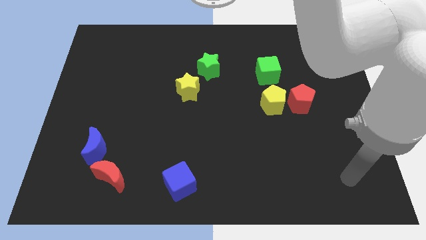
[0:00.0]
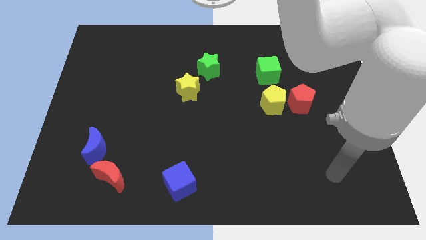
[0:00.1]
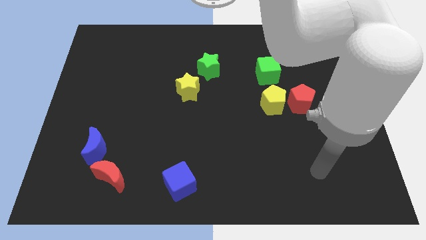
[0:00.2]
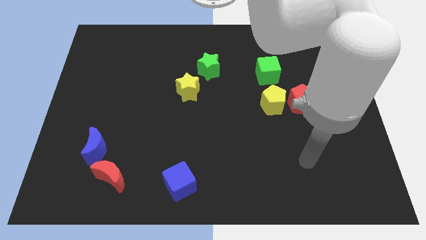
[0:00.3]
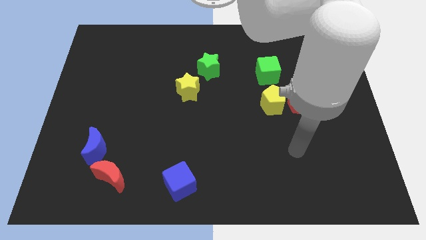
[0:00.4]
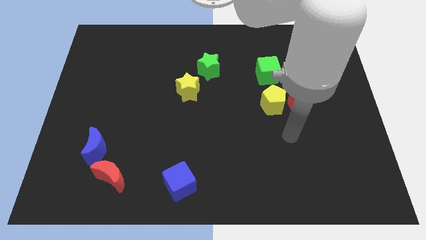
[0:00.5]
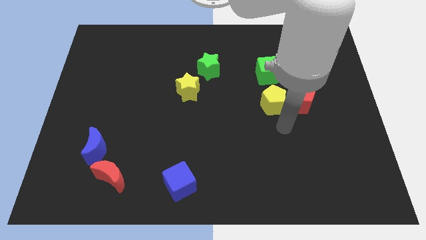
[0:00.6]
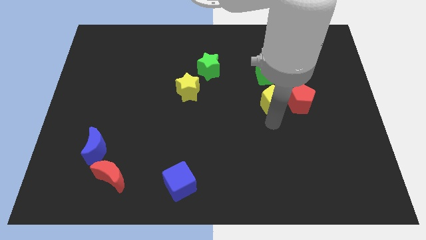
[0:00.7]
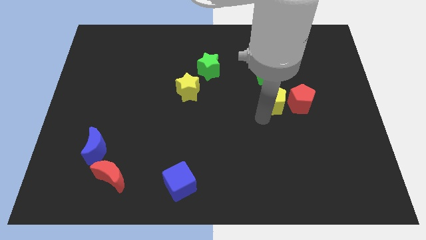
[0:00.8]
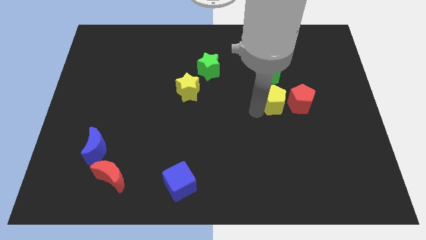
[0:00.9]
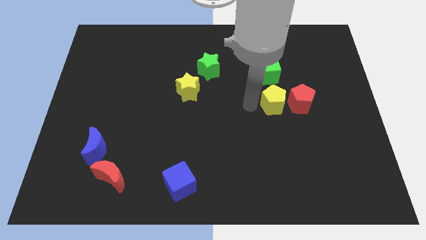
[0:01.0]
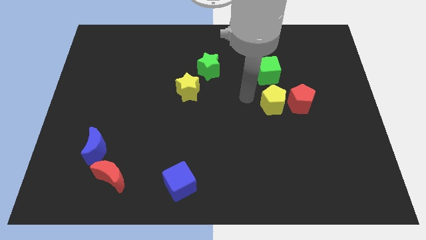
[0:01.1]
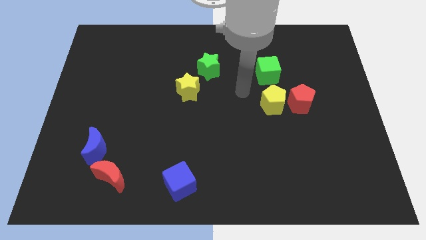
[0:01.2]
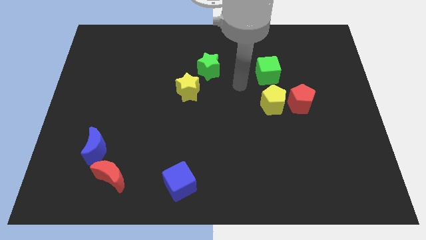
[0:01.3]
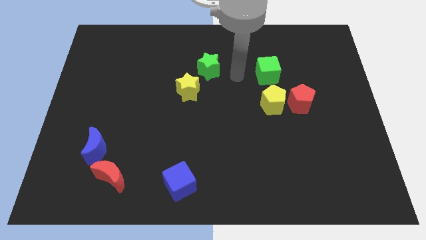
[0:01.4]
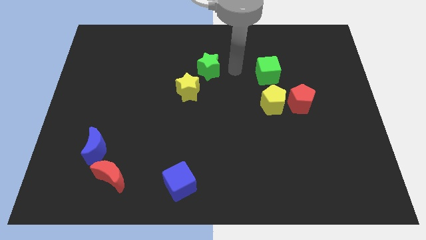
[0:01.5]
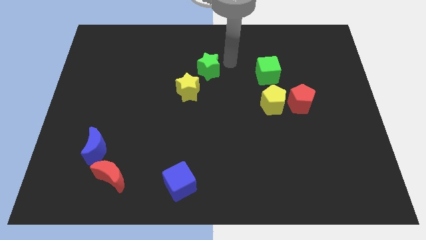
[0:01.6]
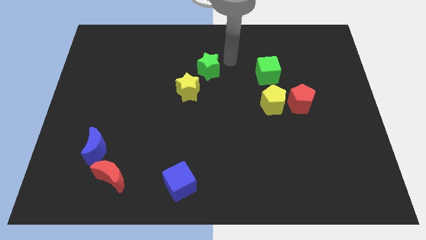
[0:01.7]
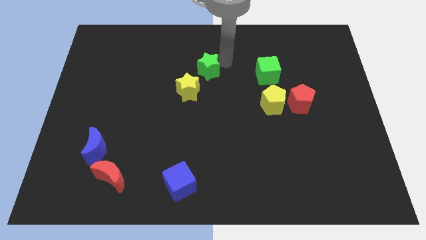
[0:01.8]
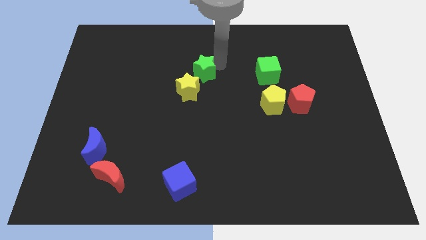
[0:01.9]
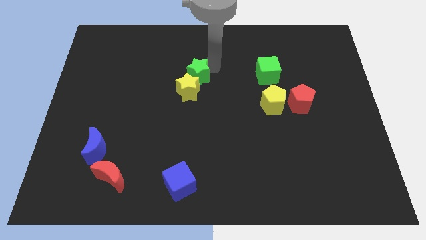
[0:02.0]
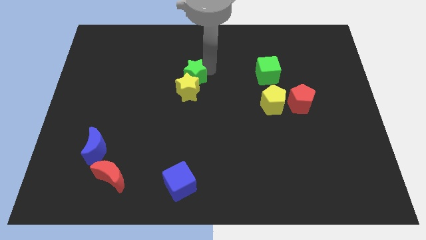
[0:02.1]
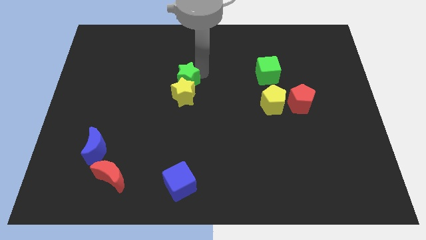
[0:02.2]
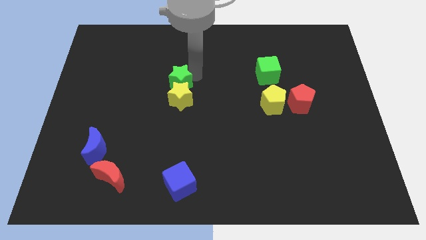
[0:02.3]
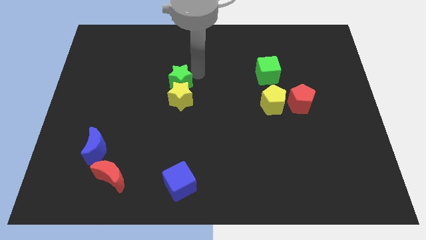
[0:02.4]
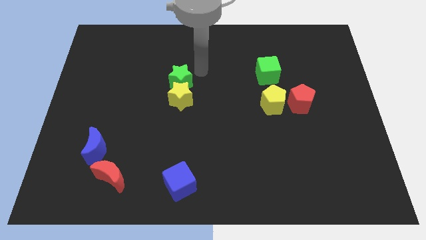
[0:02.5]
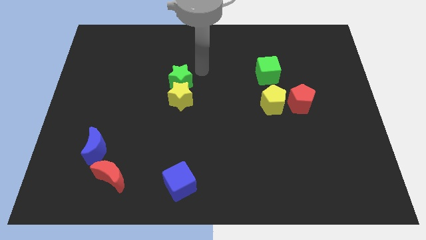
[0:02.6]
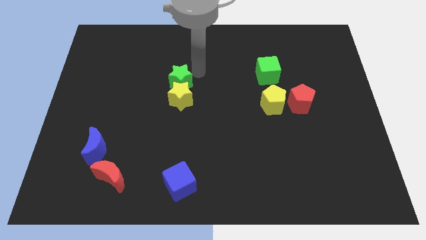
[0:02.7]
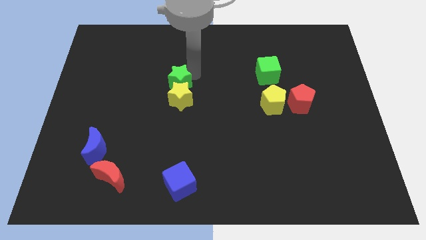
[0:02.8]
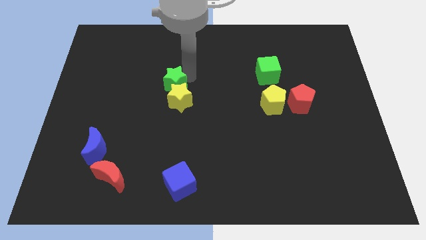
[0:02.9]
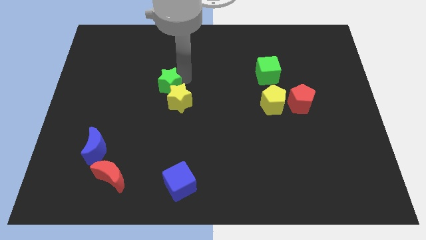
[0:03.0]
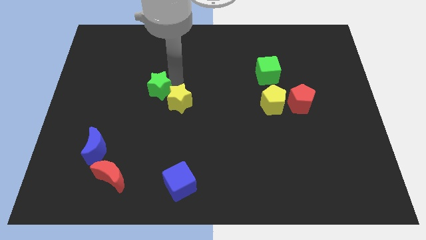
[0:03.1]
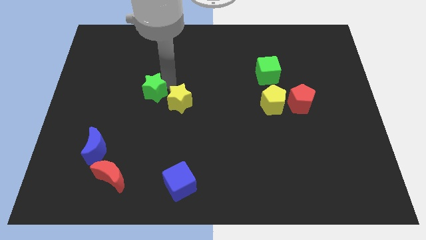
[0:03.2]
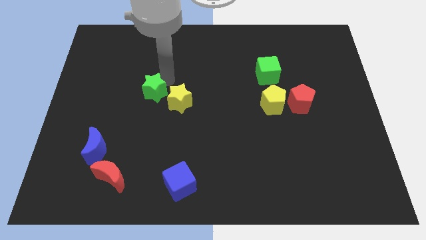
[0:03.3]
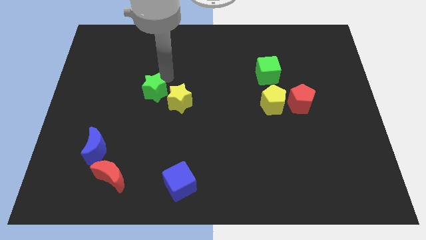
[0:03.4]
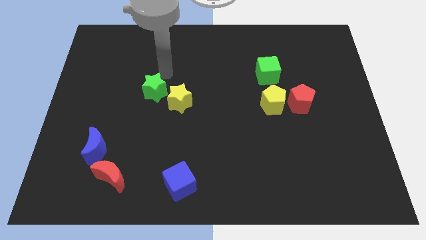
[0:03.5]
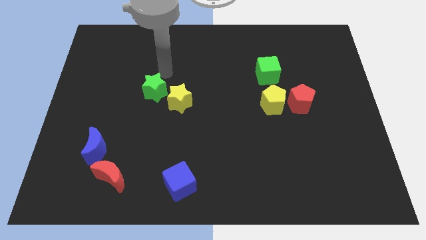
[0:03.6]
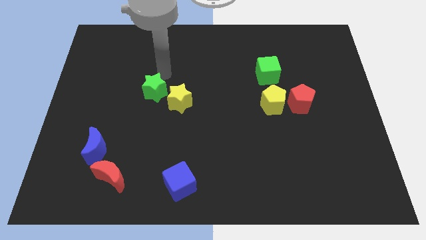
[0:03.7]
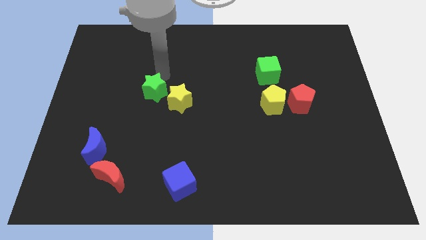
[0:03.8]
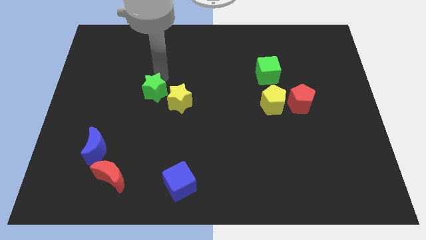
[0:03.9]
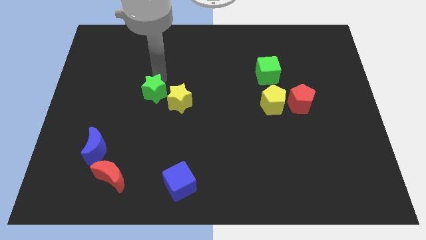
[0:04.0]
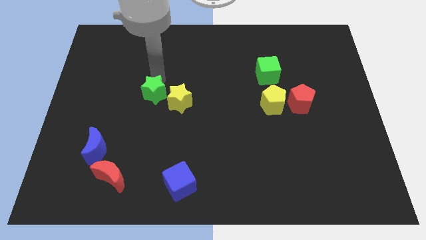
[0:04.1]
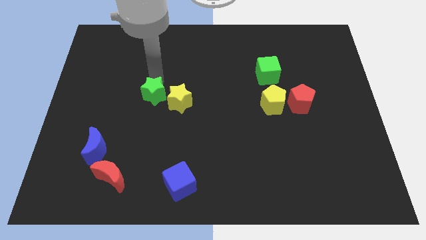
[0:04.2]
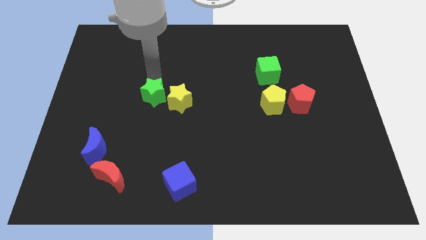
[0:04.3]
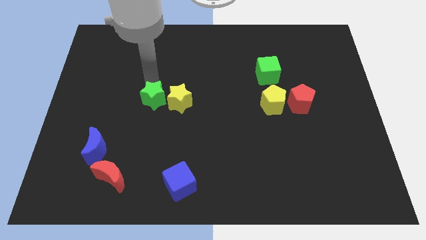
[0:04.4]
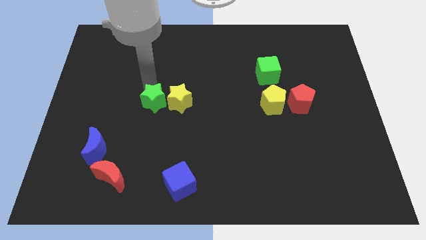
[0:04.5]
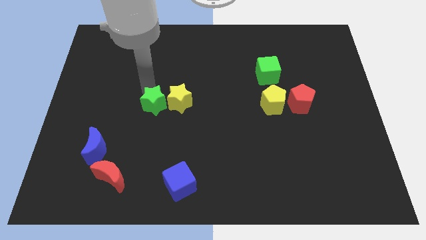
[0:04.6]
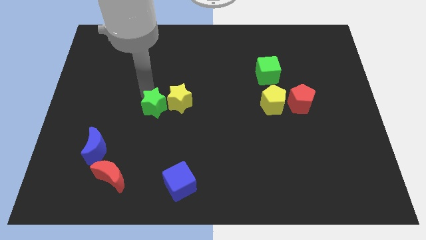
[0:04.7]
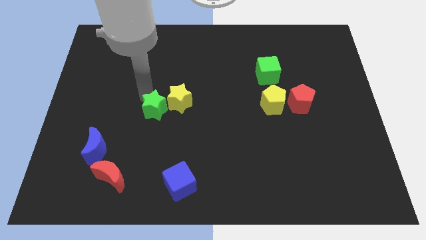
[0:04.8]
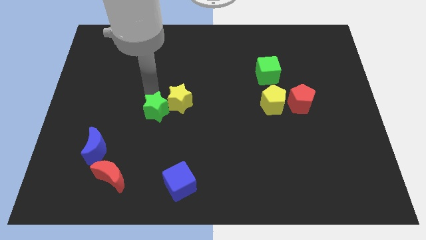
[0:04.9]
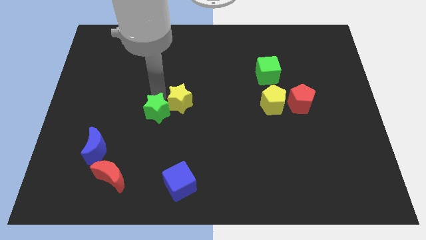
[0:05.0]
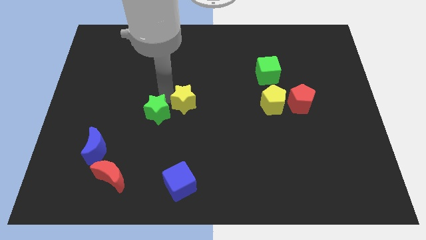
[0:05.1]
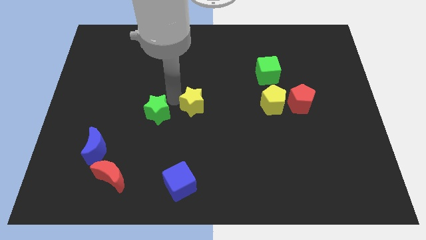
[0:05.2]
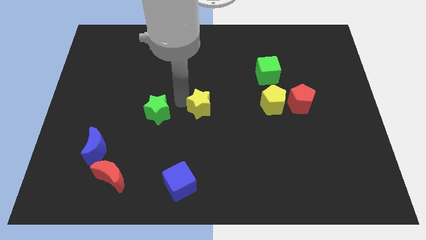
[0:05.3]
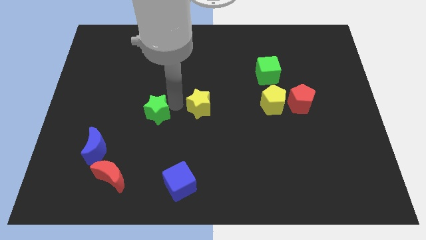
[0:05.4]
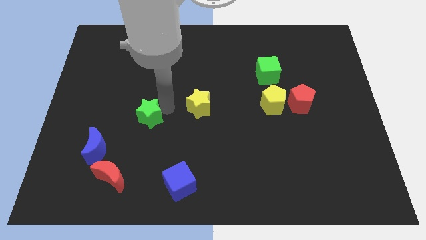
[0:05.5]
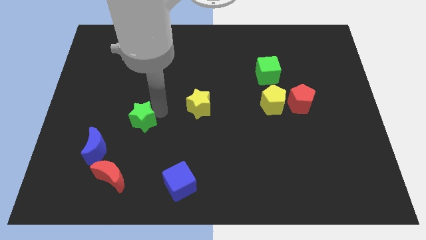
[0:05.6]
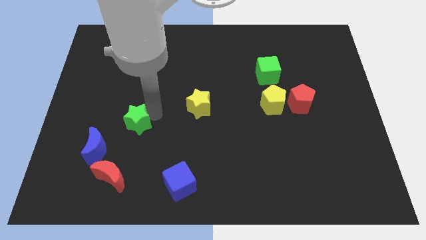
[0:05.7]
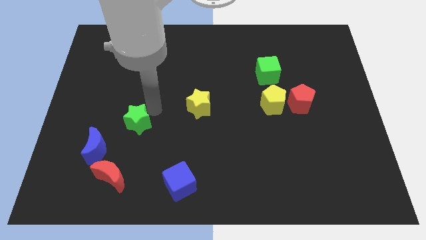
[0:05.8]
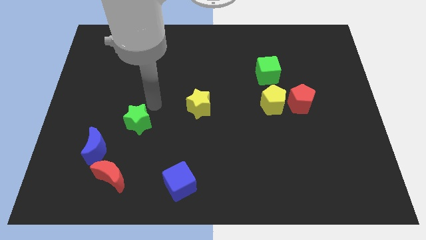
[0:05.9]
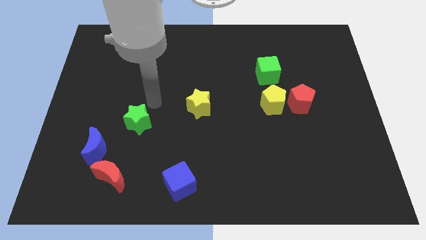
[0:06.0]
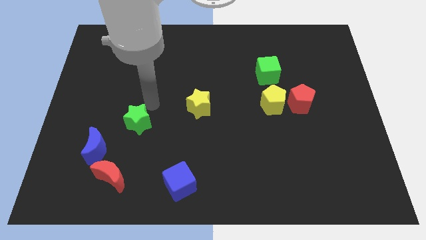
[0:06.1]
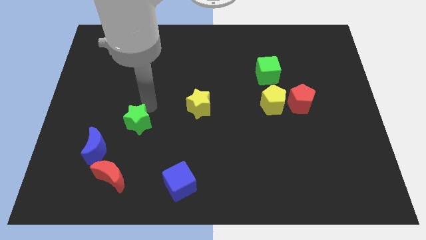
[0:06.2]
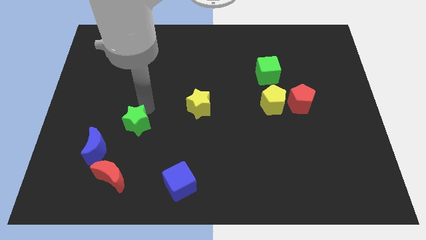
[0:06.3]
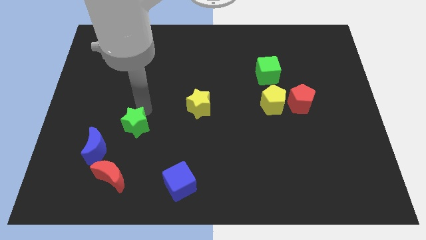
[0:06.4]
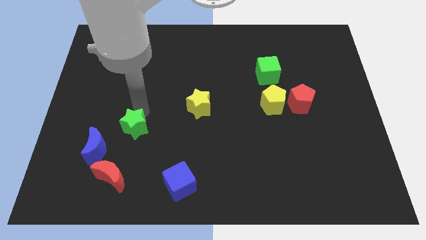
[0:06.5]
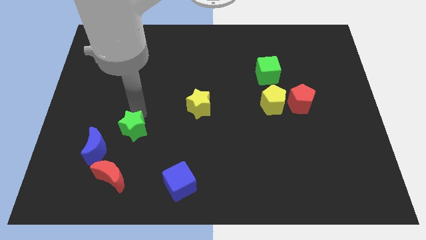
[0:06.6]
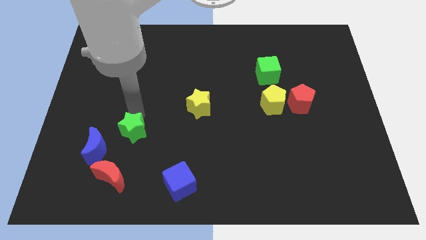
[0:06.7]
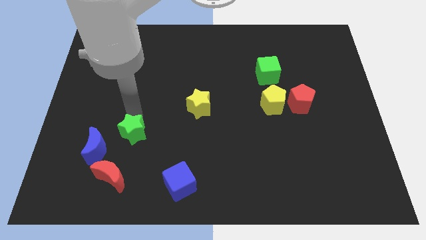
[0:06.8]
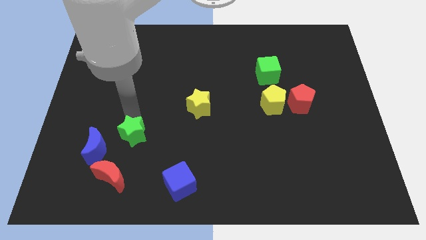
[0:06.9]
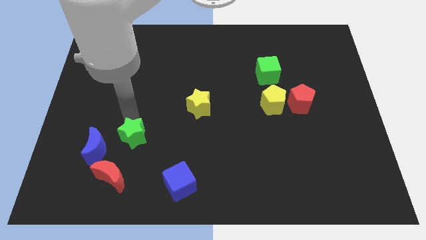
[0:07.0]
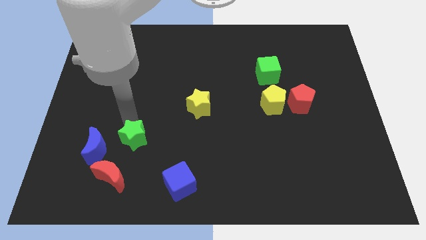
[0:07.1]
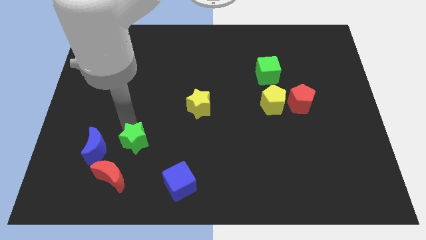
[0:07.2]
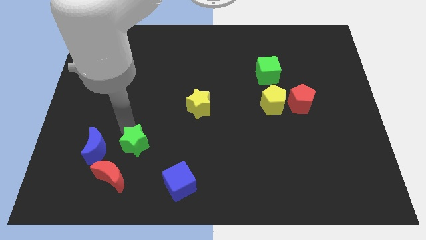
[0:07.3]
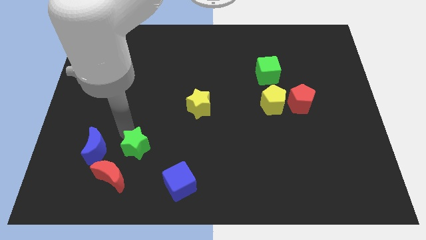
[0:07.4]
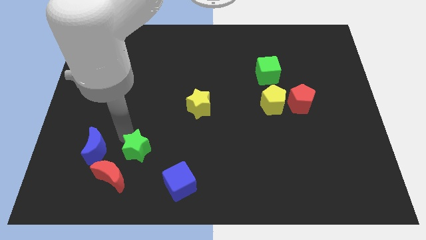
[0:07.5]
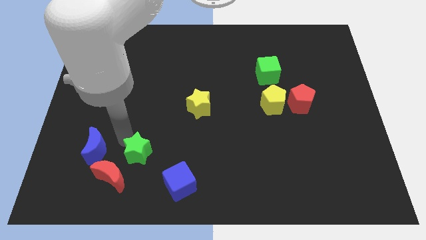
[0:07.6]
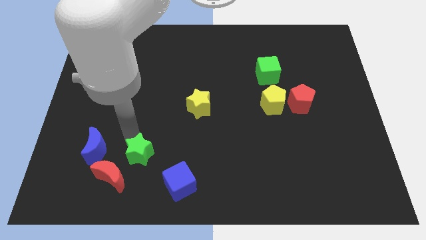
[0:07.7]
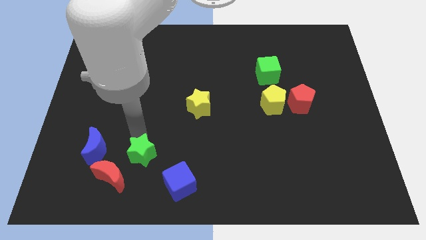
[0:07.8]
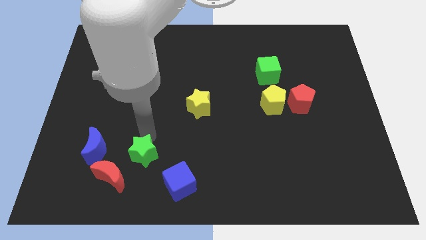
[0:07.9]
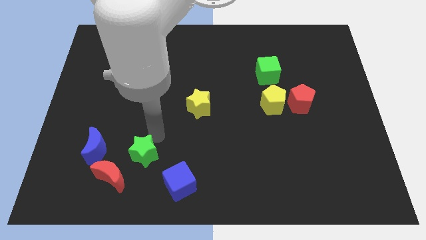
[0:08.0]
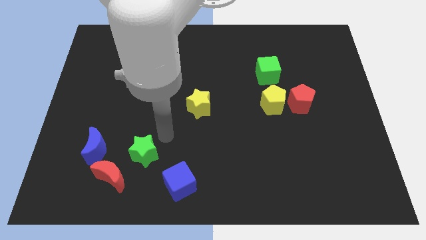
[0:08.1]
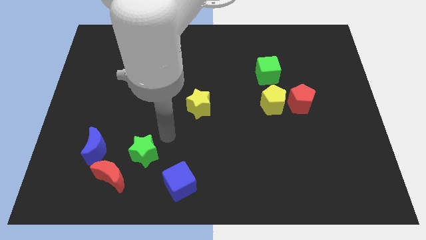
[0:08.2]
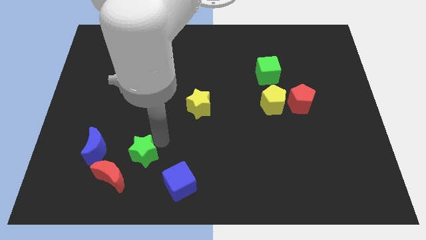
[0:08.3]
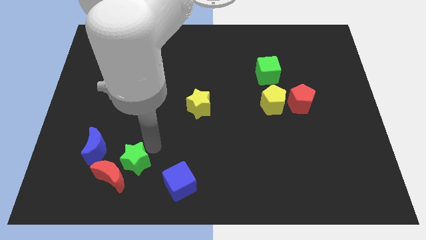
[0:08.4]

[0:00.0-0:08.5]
move the green star close to the red moon

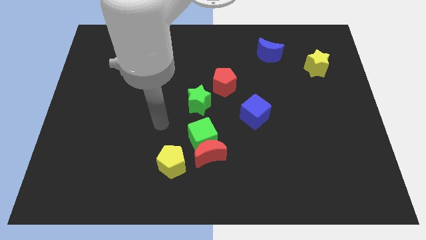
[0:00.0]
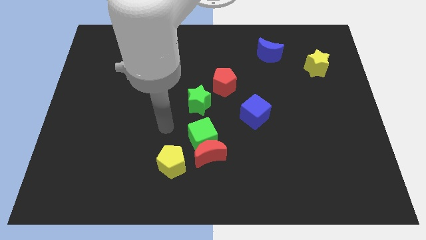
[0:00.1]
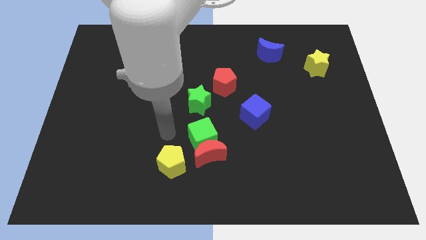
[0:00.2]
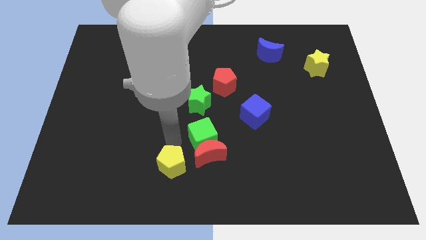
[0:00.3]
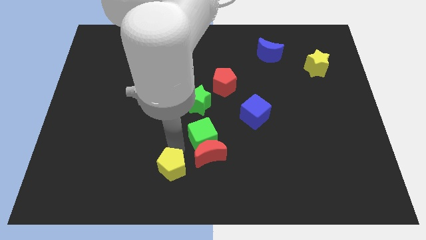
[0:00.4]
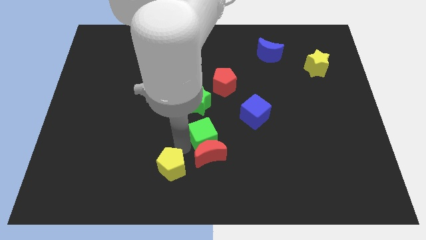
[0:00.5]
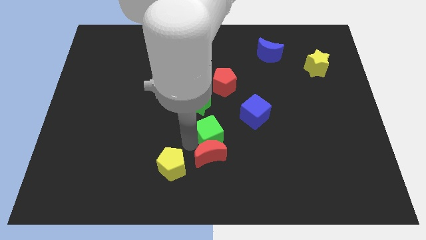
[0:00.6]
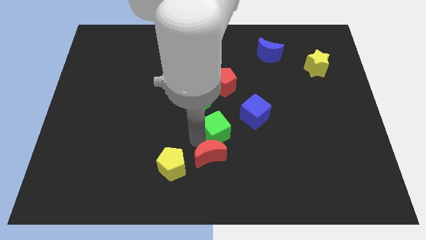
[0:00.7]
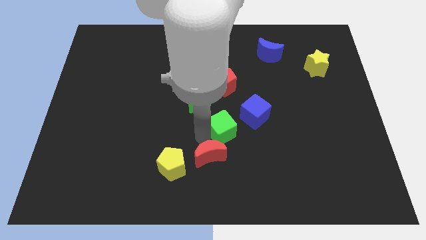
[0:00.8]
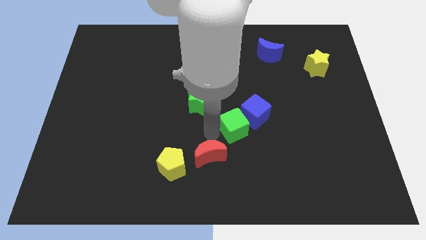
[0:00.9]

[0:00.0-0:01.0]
push the green cube to the blue cube
